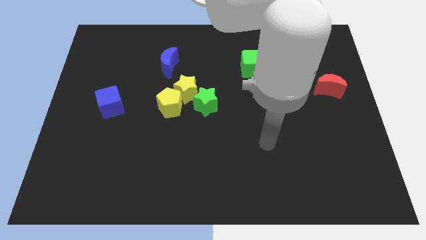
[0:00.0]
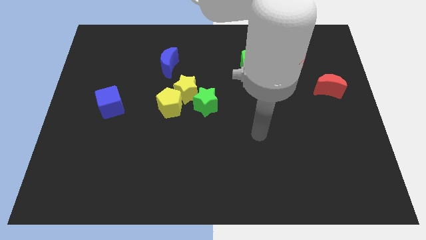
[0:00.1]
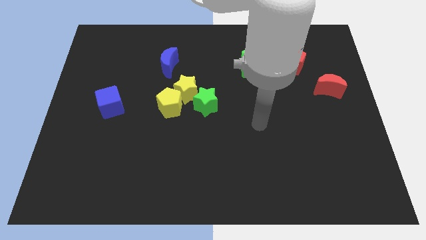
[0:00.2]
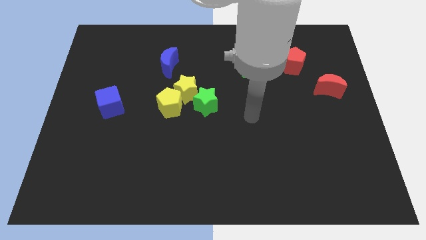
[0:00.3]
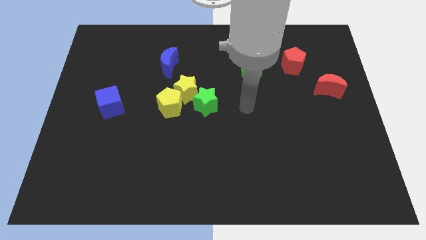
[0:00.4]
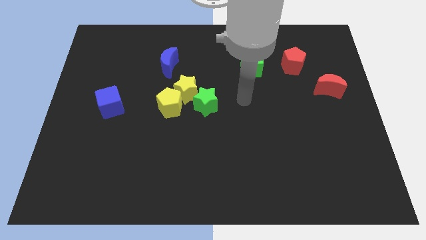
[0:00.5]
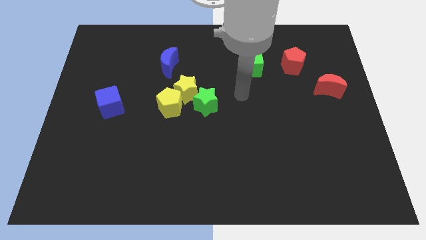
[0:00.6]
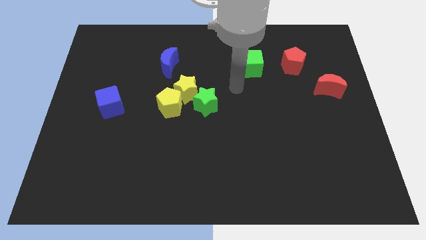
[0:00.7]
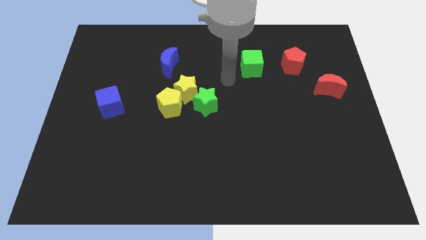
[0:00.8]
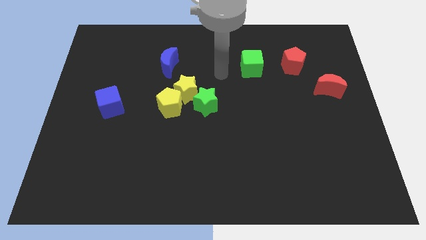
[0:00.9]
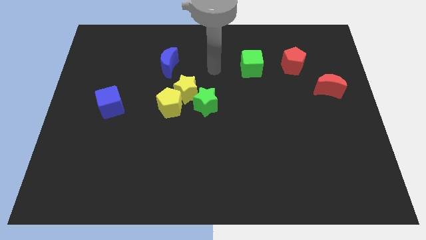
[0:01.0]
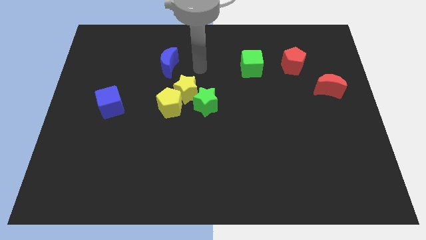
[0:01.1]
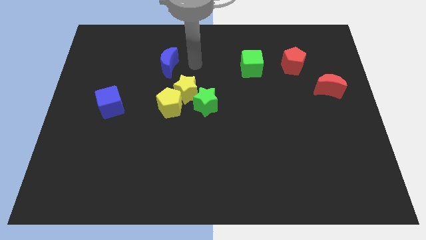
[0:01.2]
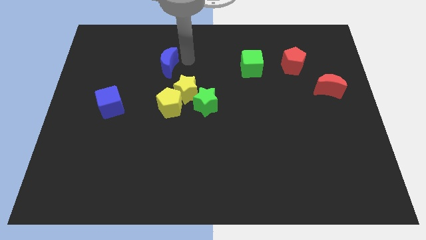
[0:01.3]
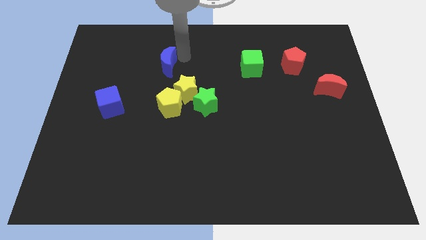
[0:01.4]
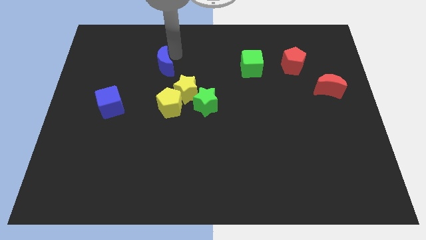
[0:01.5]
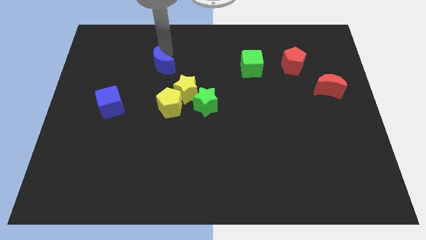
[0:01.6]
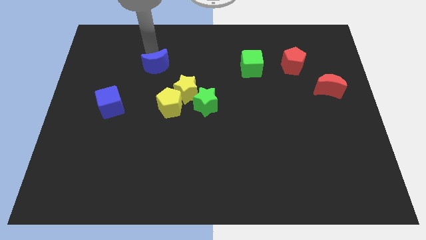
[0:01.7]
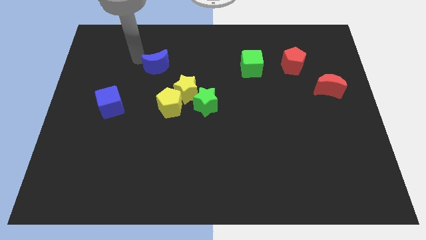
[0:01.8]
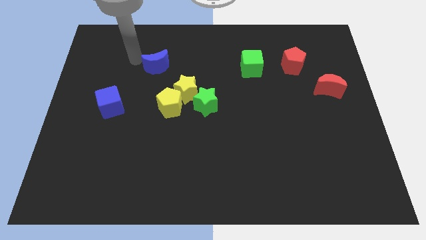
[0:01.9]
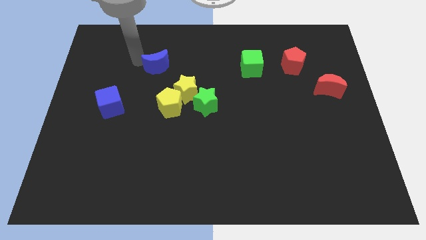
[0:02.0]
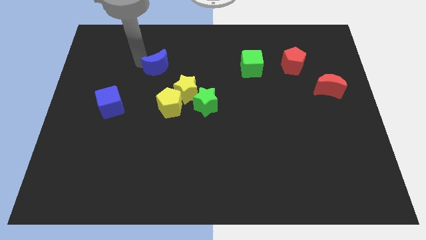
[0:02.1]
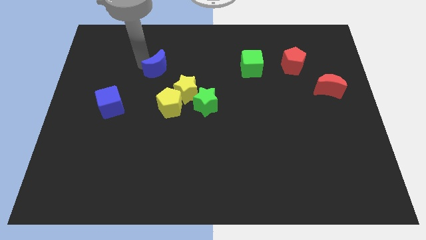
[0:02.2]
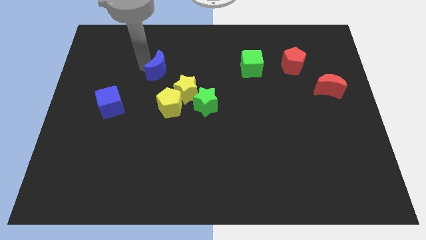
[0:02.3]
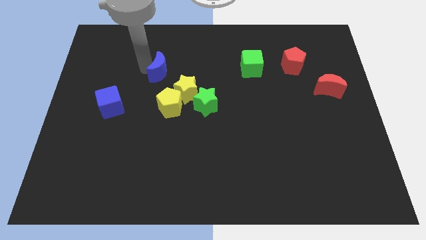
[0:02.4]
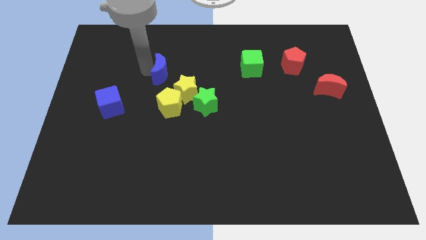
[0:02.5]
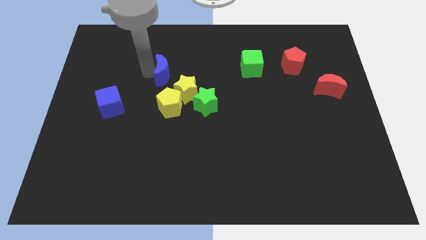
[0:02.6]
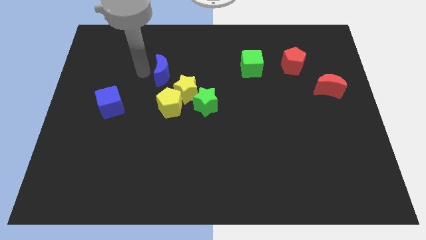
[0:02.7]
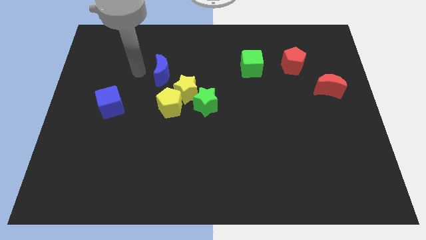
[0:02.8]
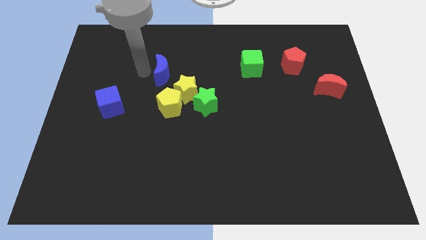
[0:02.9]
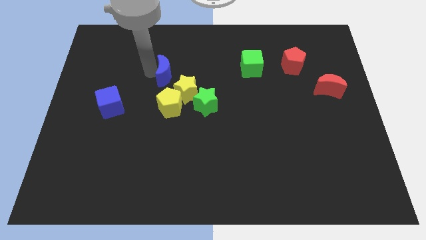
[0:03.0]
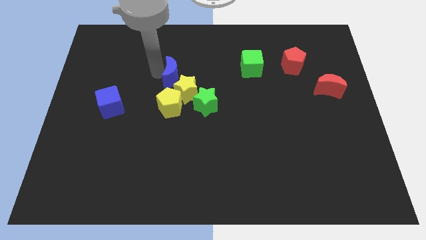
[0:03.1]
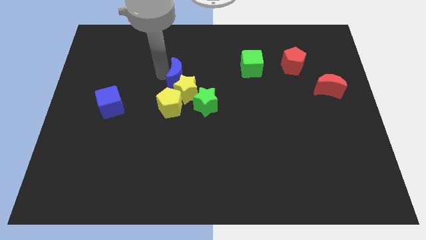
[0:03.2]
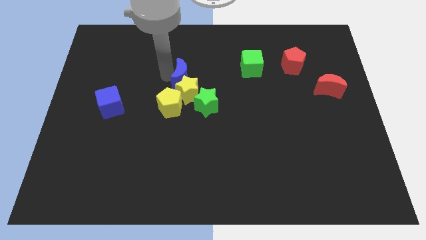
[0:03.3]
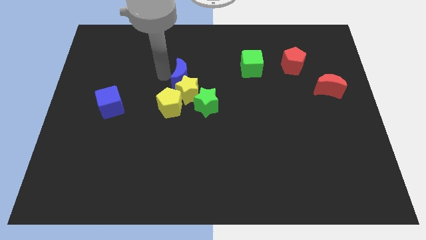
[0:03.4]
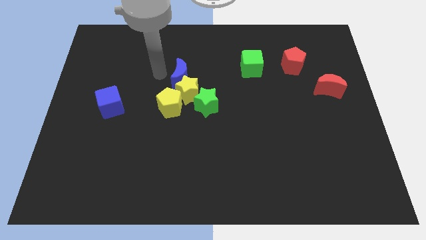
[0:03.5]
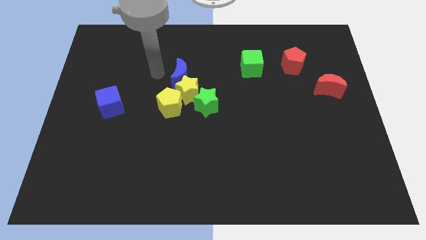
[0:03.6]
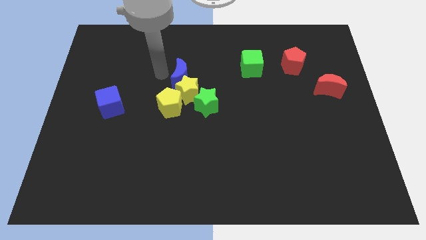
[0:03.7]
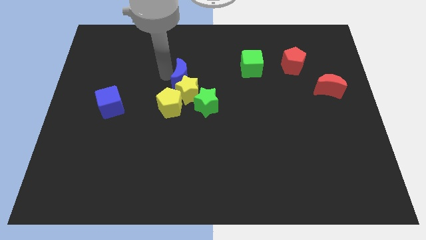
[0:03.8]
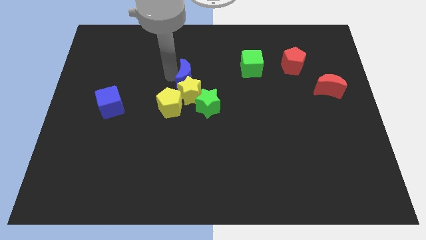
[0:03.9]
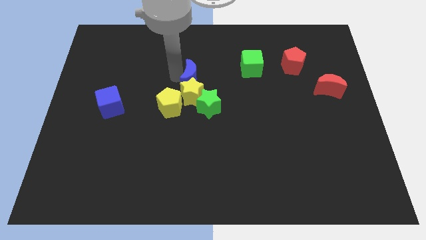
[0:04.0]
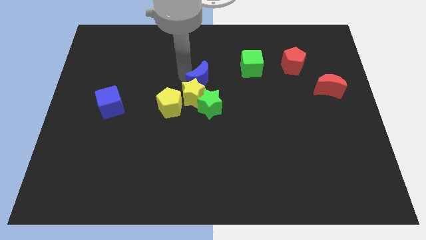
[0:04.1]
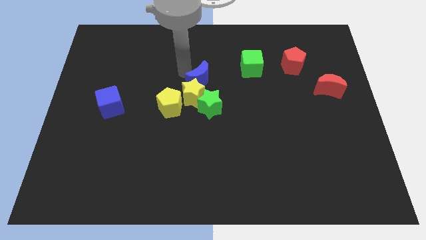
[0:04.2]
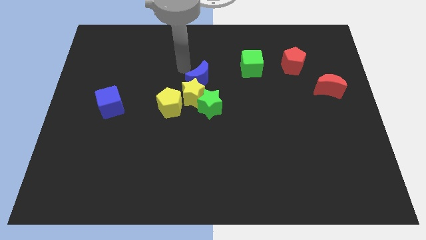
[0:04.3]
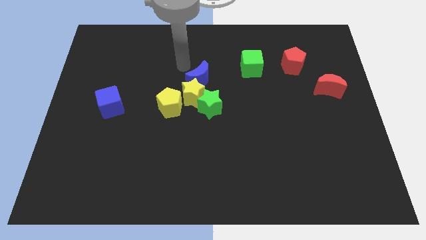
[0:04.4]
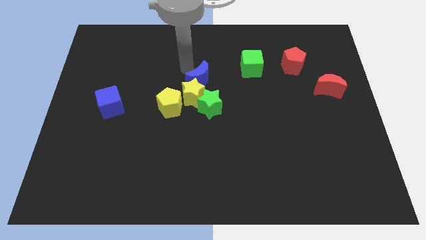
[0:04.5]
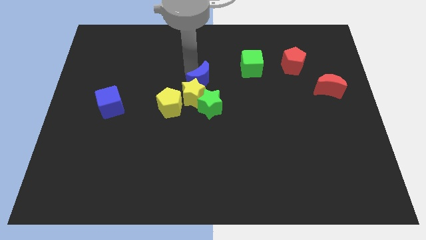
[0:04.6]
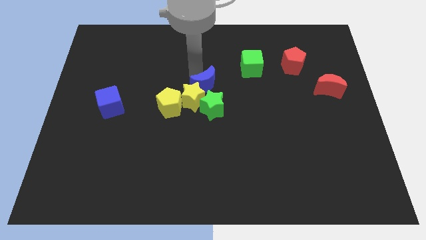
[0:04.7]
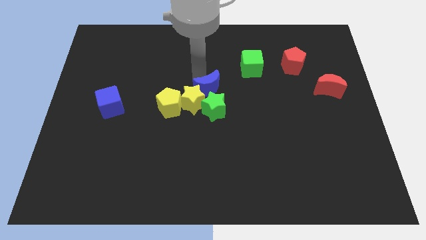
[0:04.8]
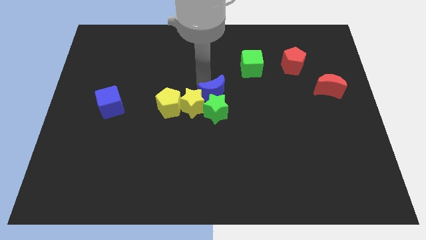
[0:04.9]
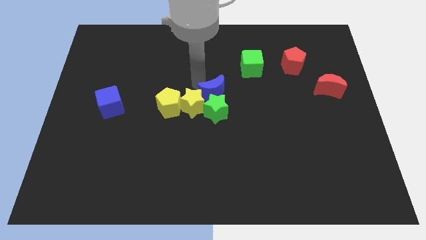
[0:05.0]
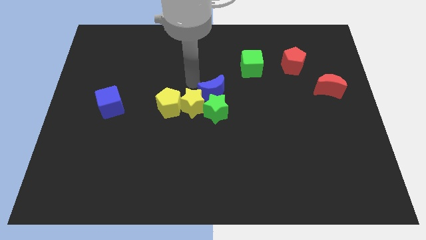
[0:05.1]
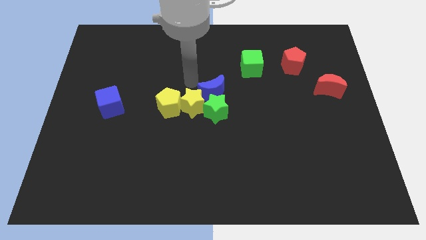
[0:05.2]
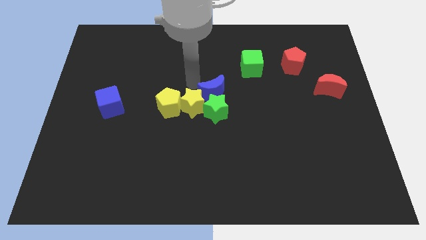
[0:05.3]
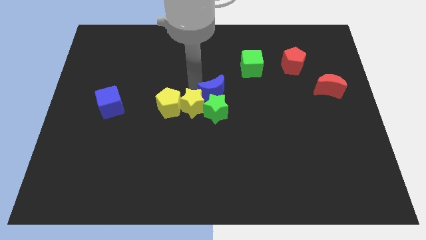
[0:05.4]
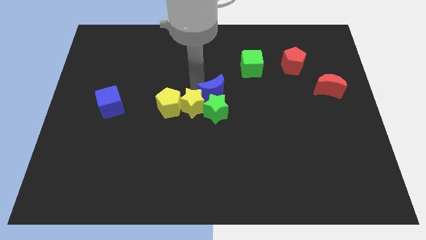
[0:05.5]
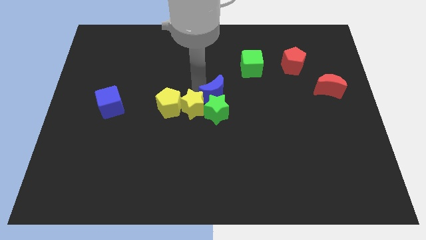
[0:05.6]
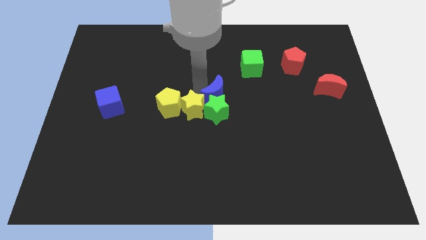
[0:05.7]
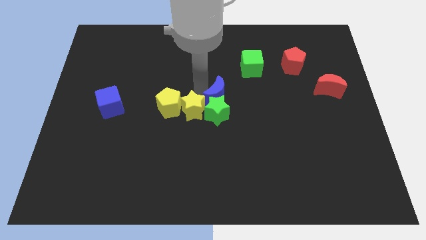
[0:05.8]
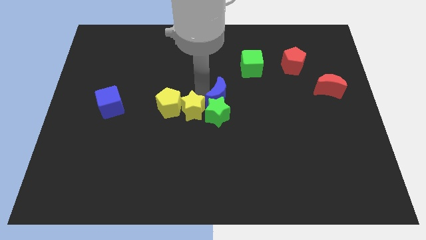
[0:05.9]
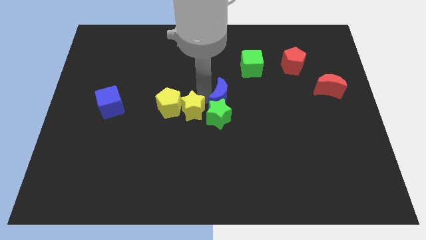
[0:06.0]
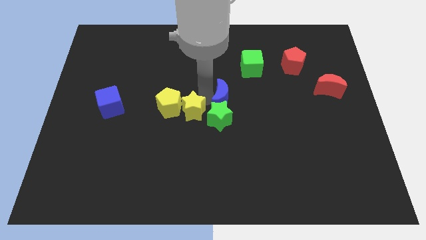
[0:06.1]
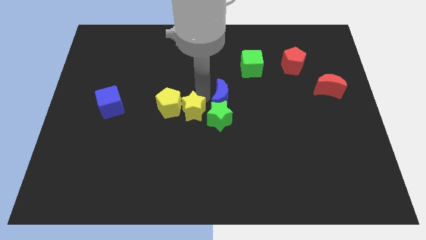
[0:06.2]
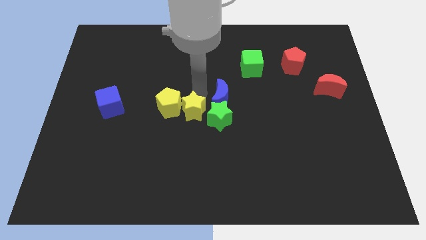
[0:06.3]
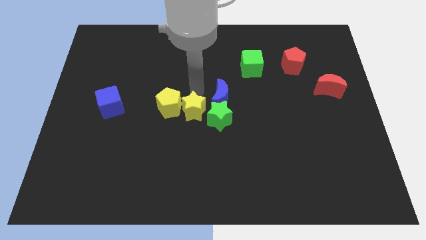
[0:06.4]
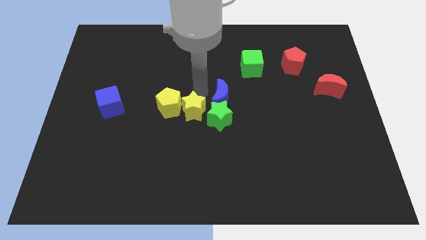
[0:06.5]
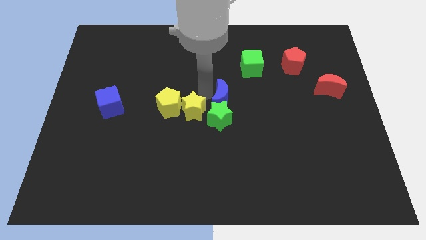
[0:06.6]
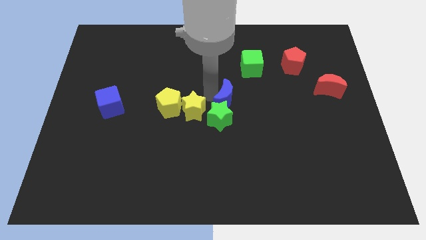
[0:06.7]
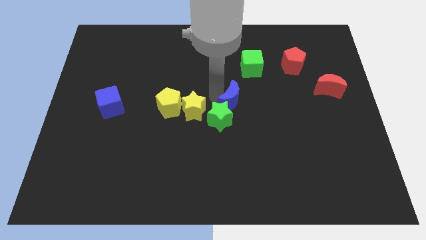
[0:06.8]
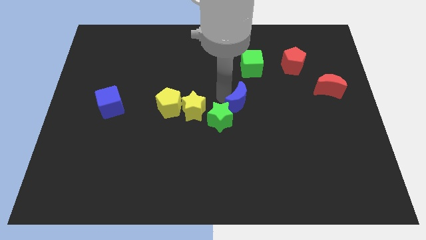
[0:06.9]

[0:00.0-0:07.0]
move the blue moon down and right

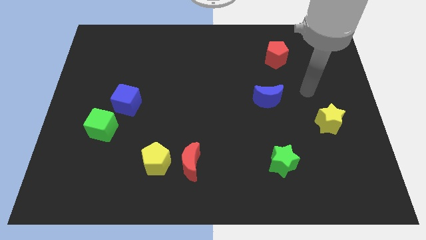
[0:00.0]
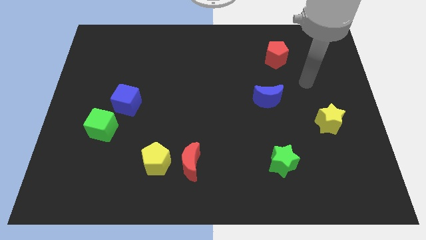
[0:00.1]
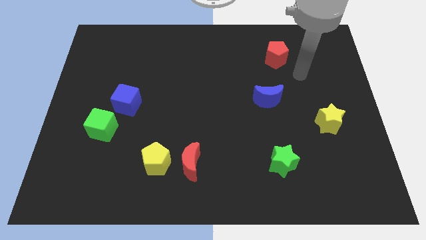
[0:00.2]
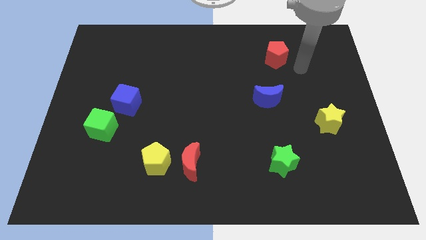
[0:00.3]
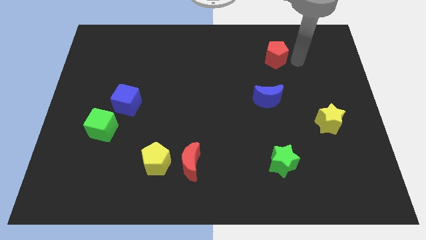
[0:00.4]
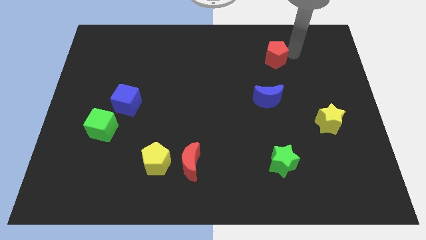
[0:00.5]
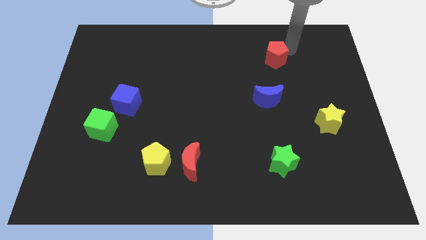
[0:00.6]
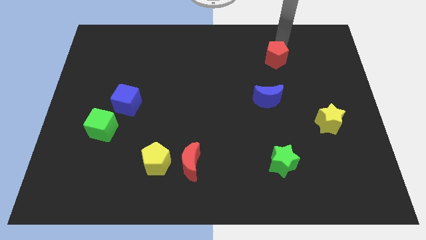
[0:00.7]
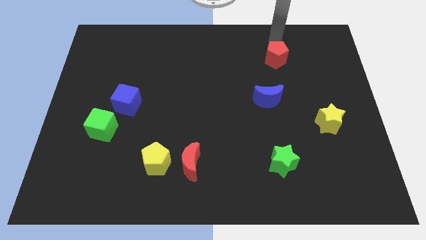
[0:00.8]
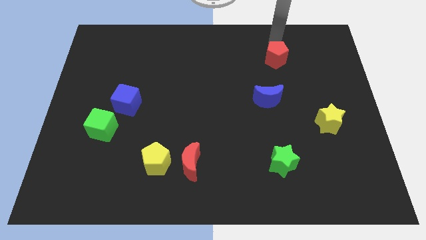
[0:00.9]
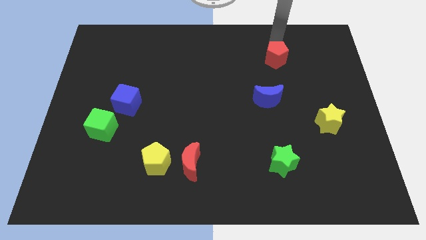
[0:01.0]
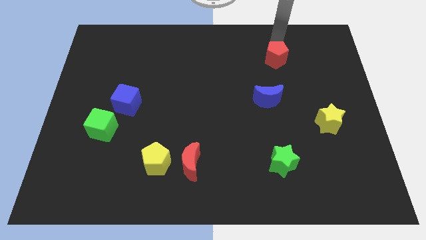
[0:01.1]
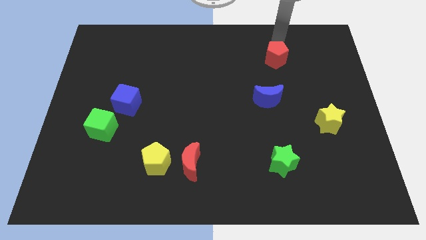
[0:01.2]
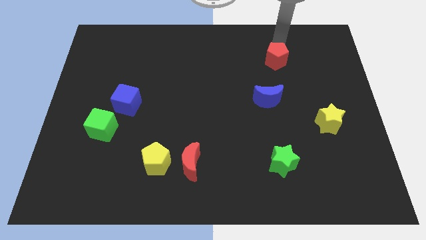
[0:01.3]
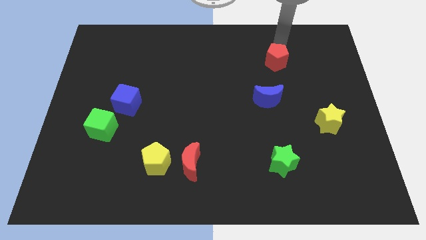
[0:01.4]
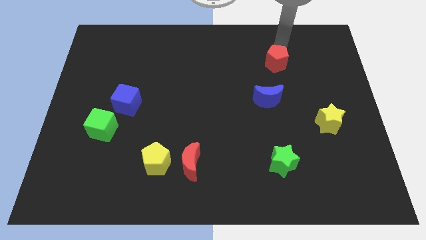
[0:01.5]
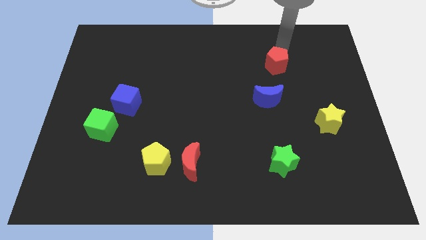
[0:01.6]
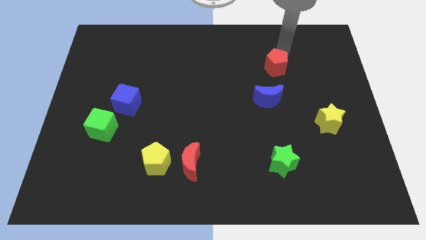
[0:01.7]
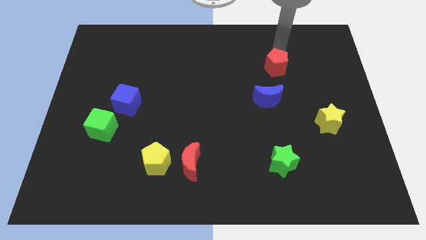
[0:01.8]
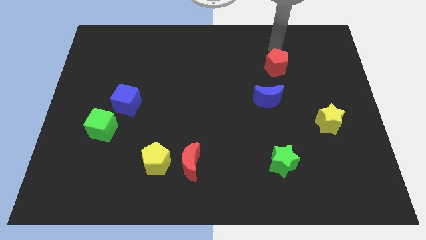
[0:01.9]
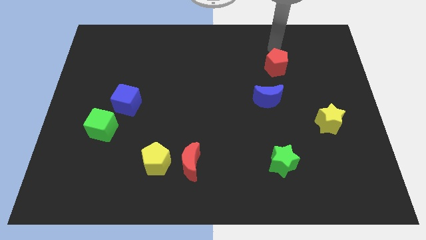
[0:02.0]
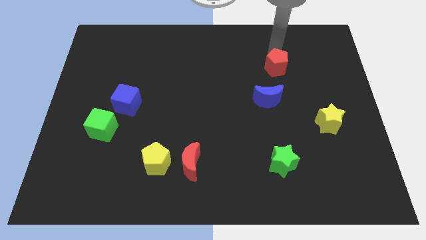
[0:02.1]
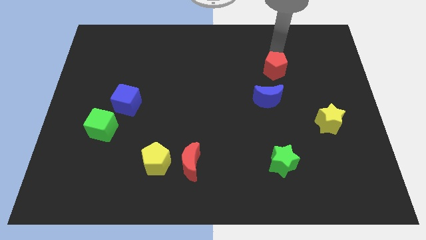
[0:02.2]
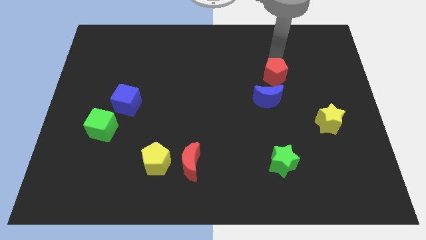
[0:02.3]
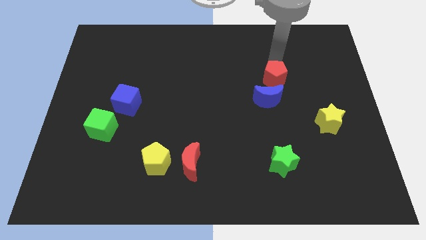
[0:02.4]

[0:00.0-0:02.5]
slightly slide the red pentagon downwards
